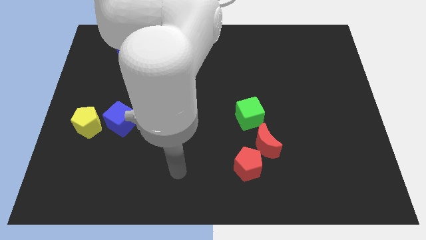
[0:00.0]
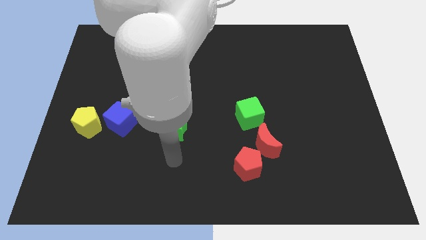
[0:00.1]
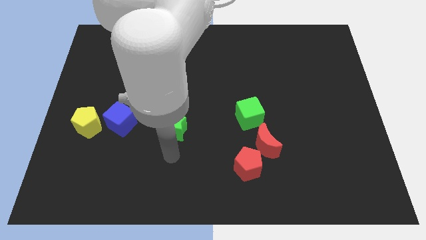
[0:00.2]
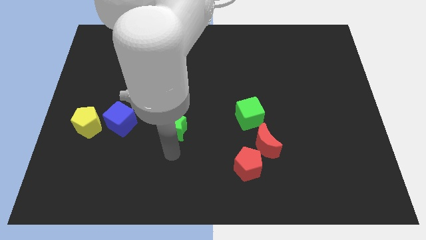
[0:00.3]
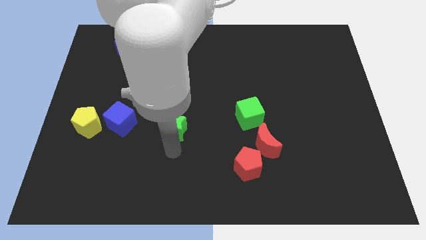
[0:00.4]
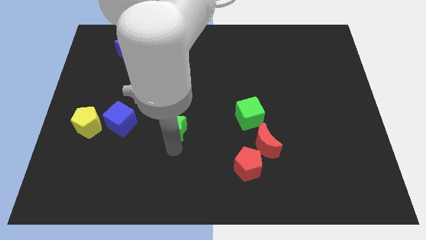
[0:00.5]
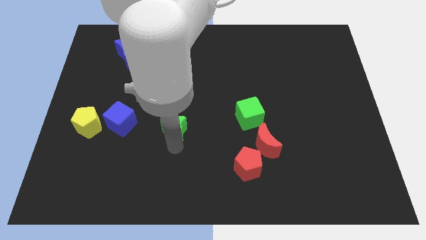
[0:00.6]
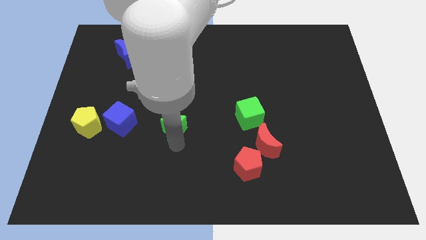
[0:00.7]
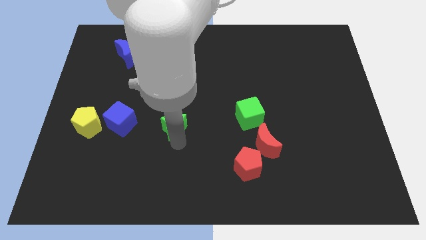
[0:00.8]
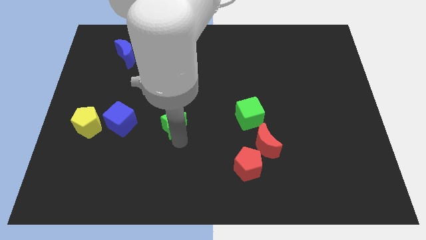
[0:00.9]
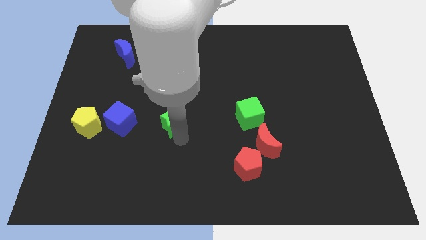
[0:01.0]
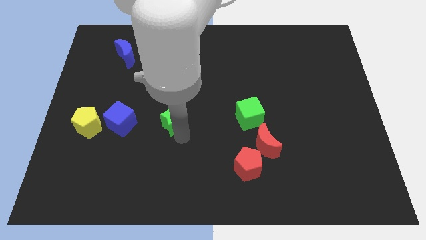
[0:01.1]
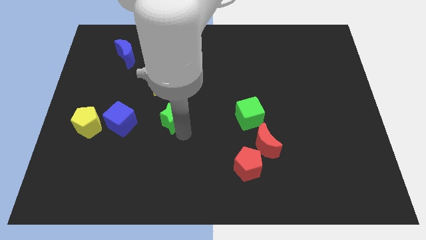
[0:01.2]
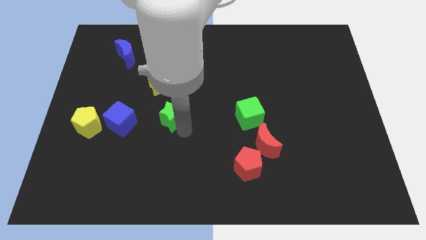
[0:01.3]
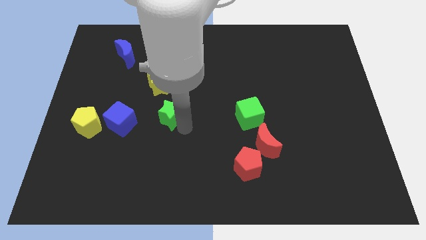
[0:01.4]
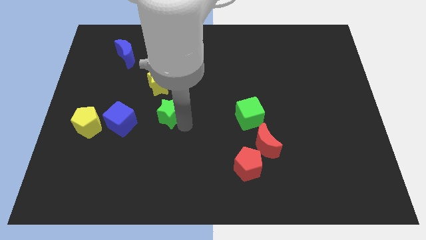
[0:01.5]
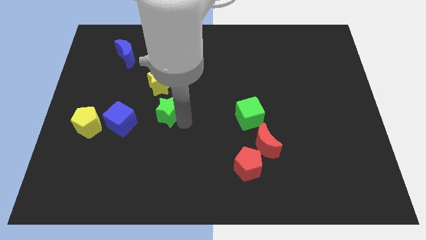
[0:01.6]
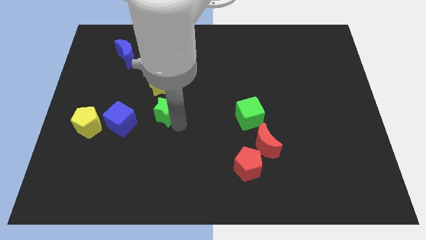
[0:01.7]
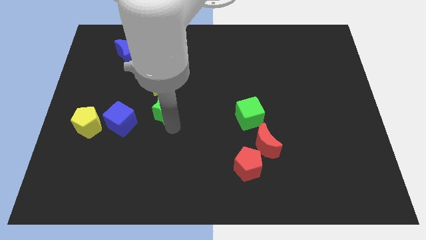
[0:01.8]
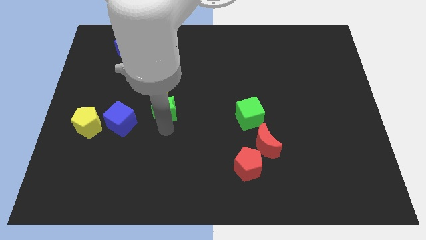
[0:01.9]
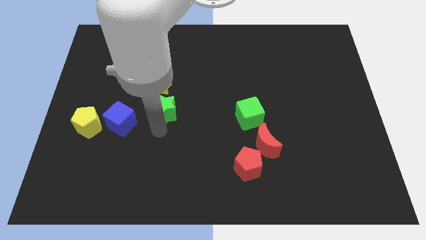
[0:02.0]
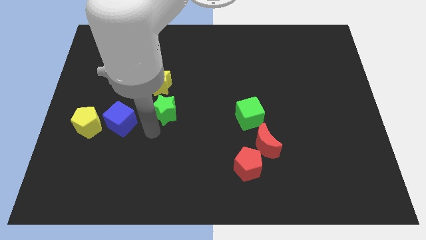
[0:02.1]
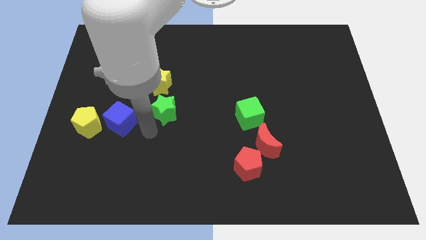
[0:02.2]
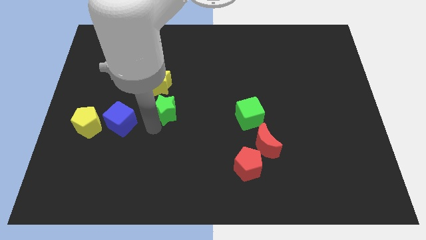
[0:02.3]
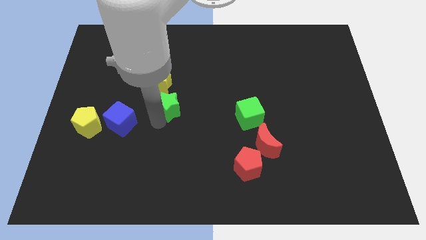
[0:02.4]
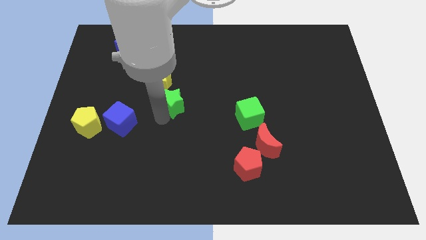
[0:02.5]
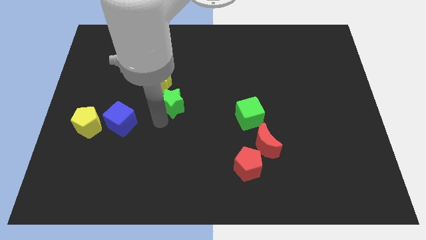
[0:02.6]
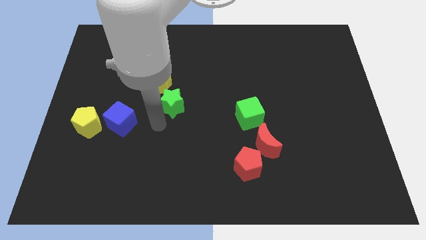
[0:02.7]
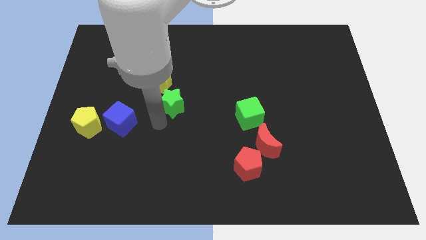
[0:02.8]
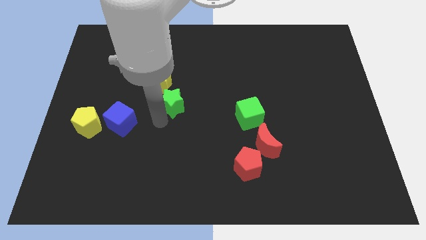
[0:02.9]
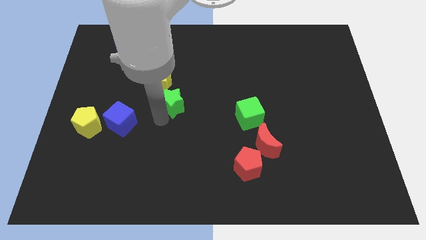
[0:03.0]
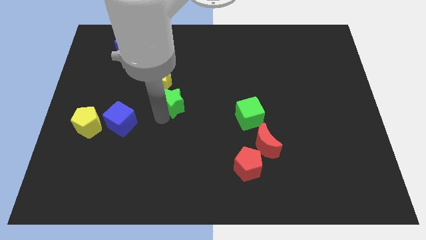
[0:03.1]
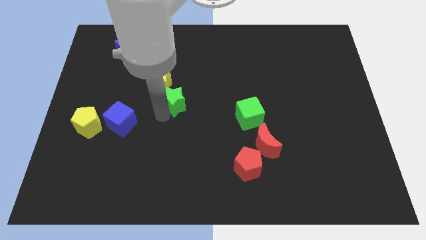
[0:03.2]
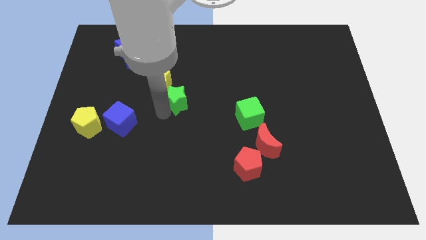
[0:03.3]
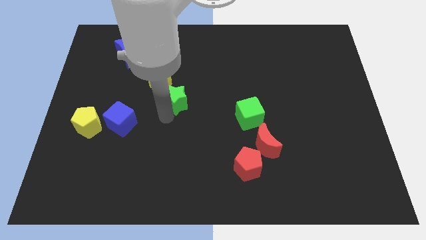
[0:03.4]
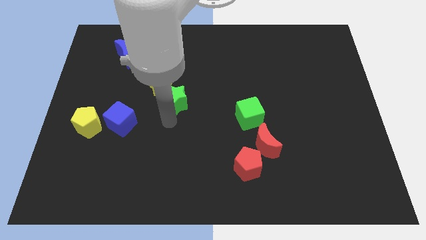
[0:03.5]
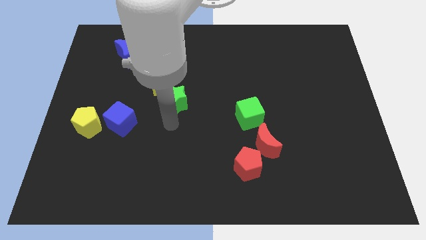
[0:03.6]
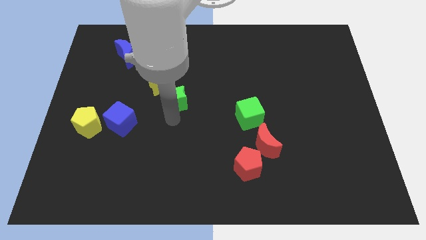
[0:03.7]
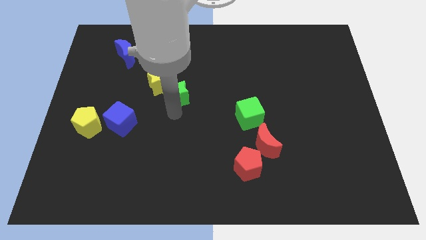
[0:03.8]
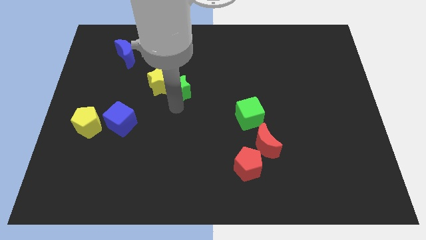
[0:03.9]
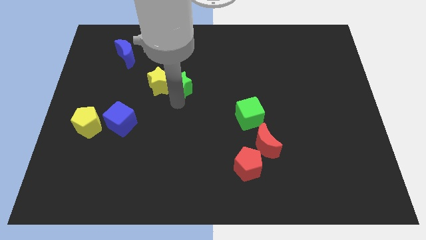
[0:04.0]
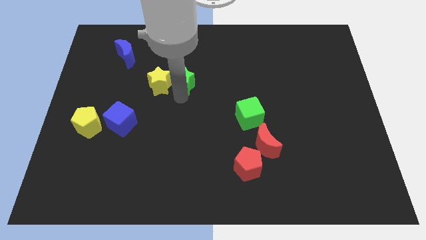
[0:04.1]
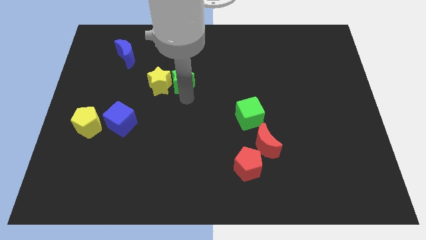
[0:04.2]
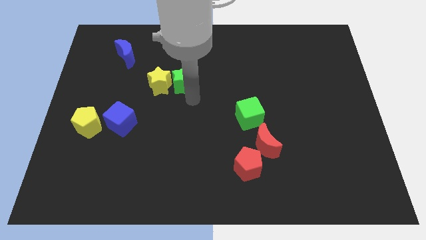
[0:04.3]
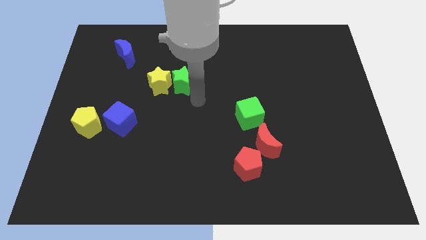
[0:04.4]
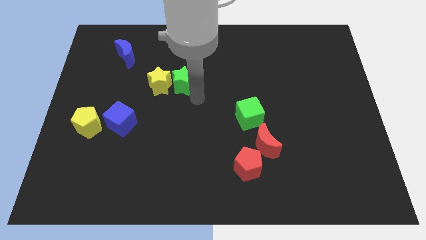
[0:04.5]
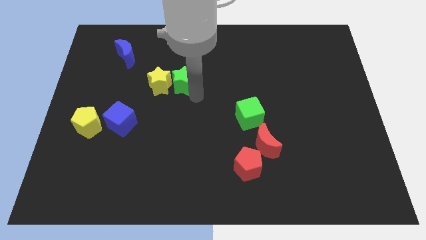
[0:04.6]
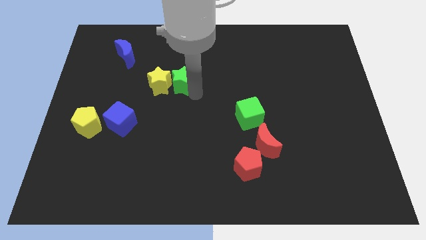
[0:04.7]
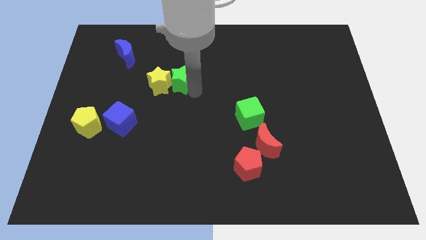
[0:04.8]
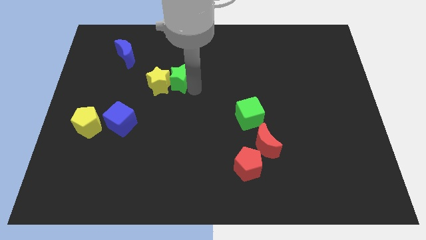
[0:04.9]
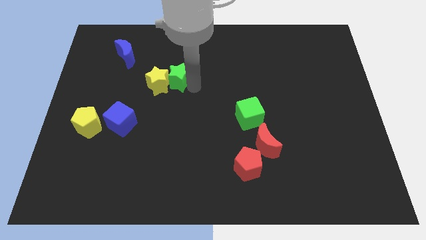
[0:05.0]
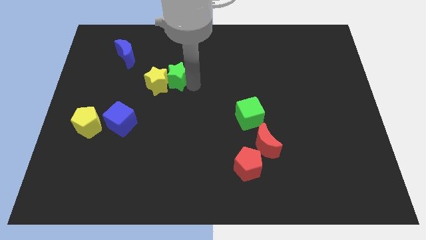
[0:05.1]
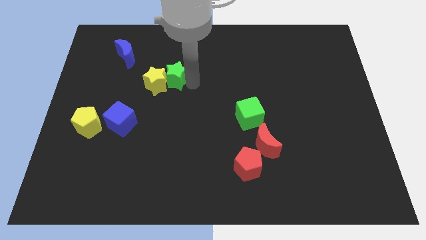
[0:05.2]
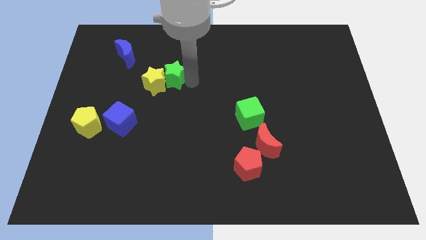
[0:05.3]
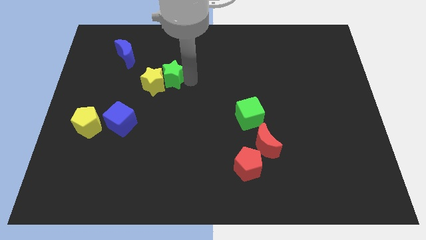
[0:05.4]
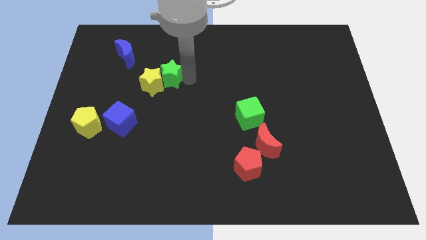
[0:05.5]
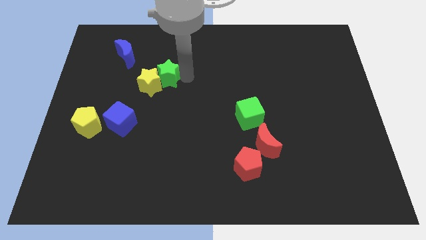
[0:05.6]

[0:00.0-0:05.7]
move the green star above the yellow star

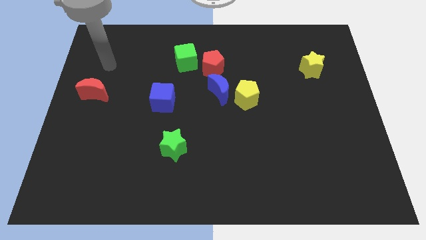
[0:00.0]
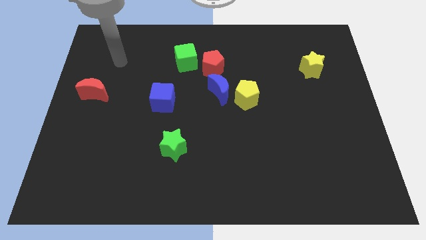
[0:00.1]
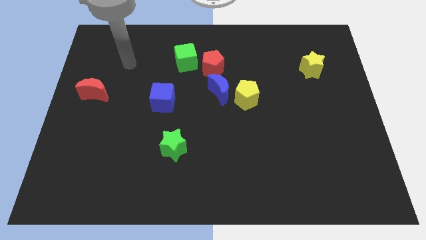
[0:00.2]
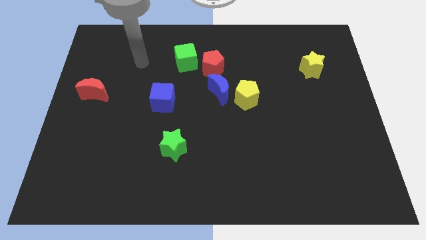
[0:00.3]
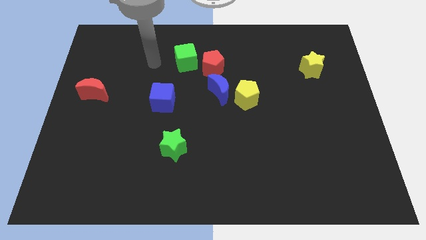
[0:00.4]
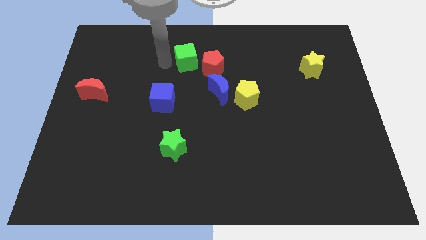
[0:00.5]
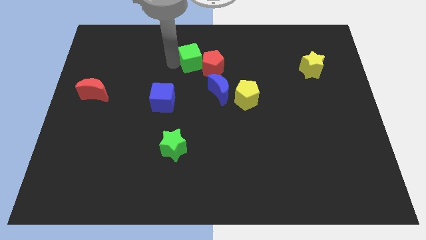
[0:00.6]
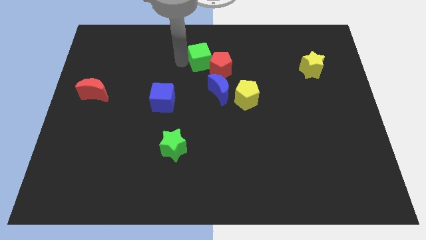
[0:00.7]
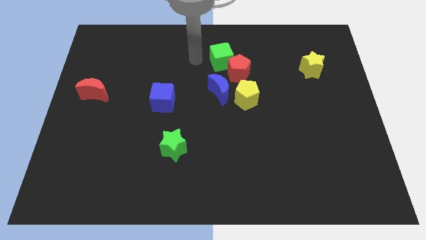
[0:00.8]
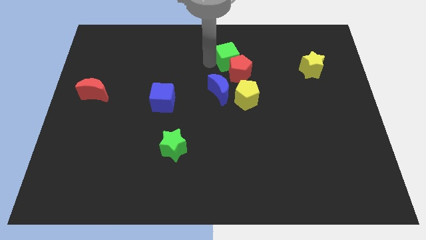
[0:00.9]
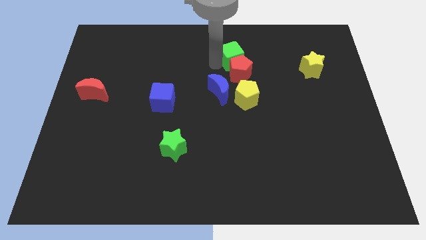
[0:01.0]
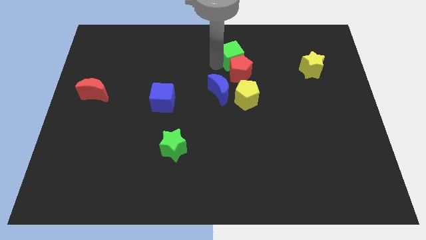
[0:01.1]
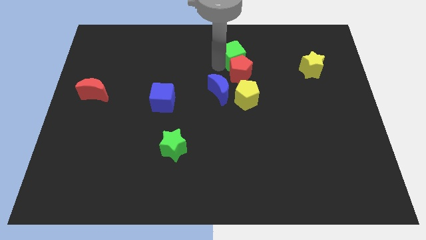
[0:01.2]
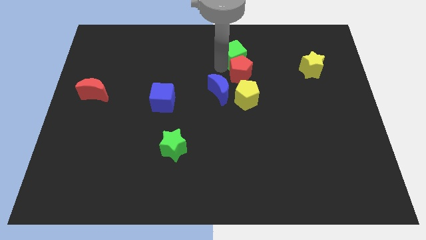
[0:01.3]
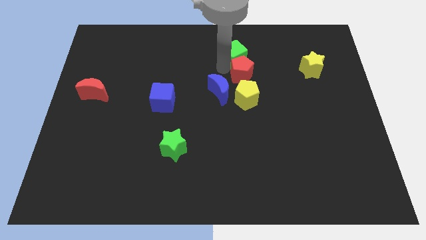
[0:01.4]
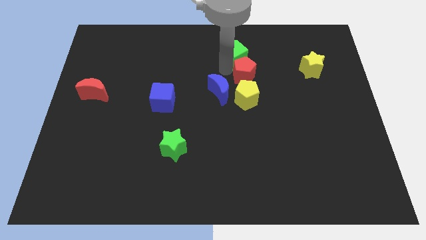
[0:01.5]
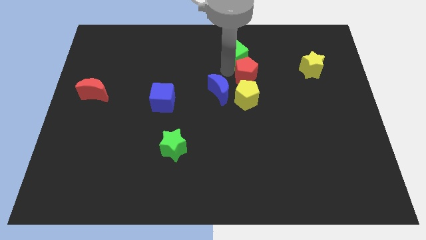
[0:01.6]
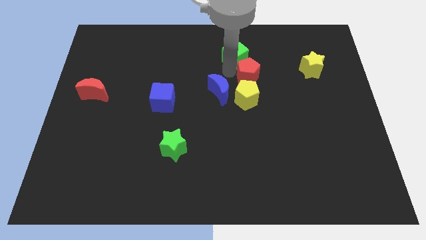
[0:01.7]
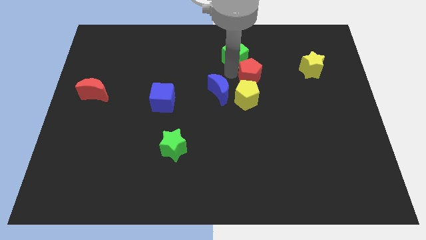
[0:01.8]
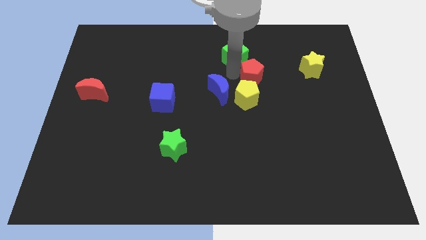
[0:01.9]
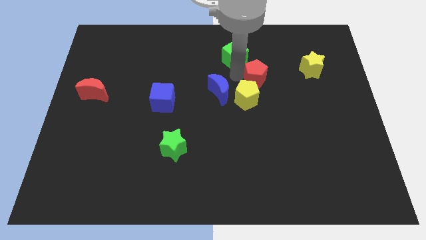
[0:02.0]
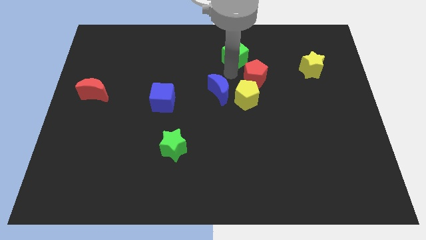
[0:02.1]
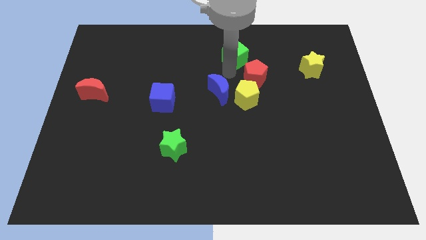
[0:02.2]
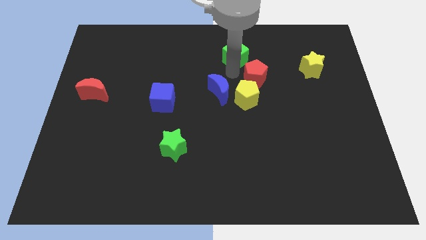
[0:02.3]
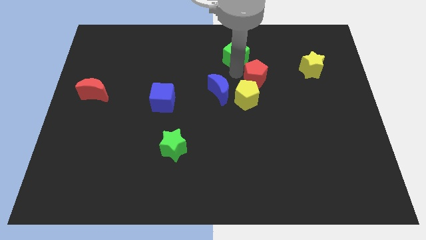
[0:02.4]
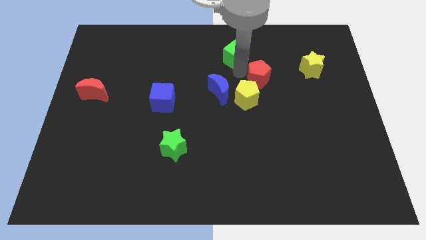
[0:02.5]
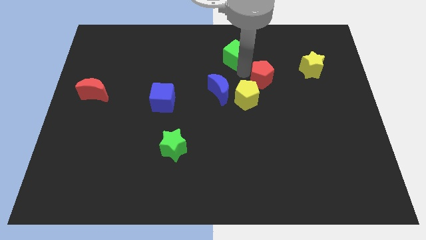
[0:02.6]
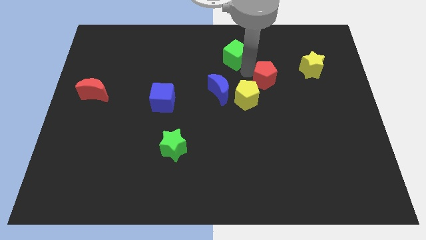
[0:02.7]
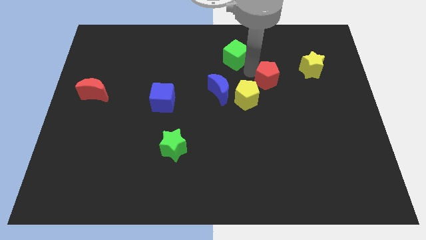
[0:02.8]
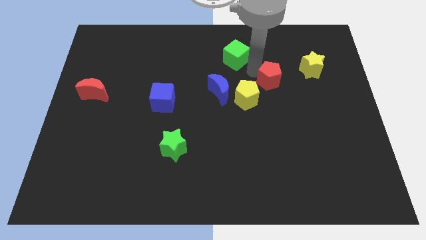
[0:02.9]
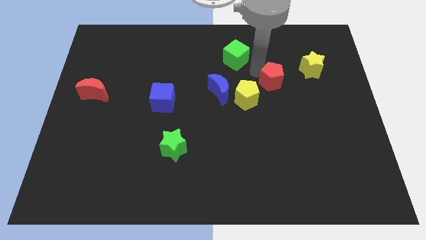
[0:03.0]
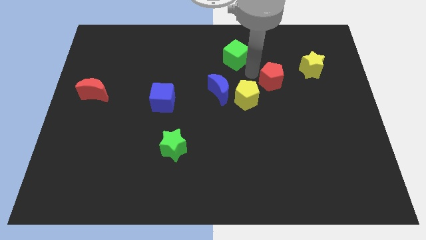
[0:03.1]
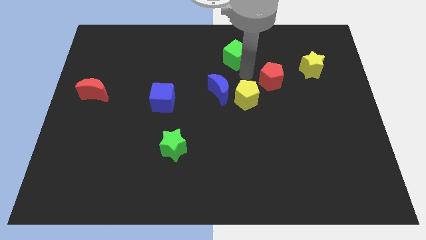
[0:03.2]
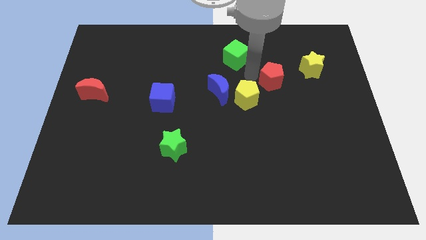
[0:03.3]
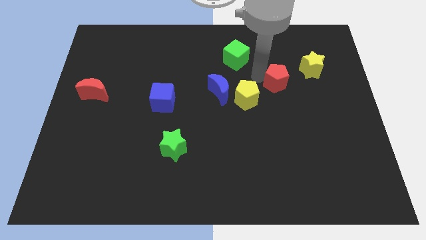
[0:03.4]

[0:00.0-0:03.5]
push the red pentagon to the bottom left side of the yellow star
